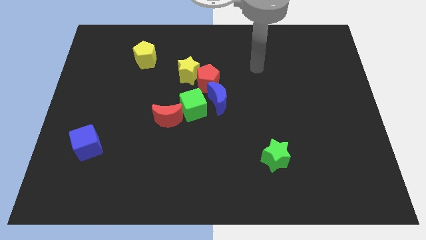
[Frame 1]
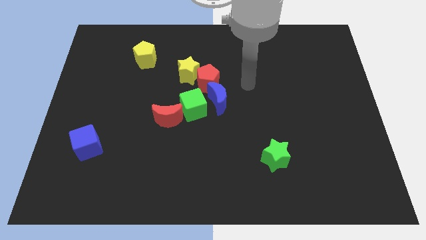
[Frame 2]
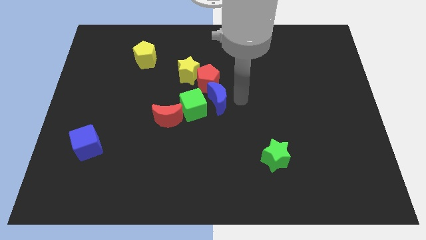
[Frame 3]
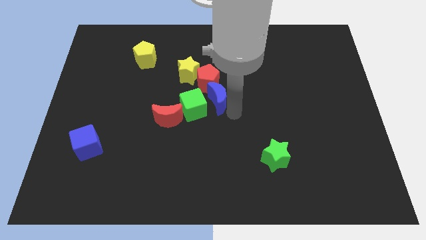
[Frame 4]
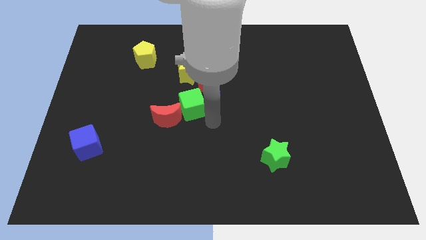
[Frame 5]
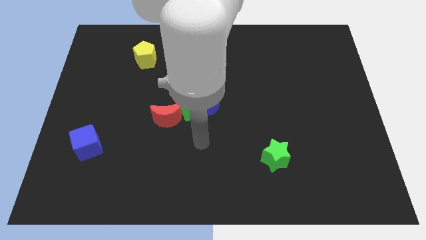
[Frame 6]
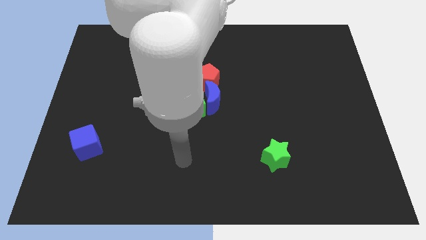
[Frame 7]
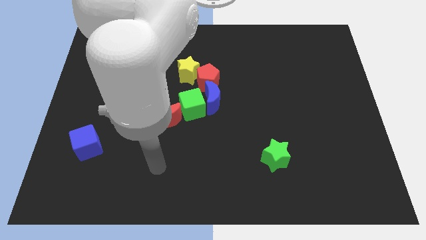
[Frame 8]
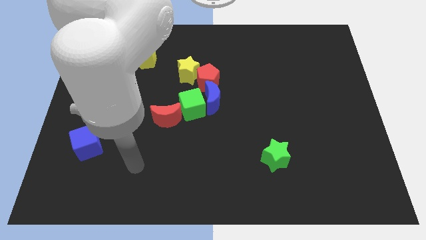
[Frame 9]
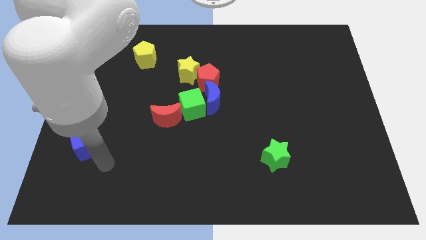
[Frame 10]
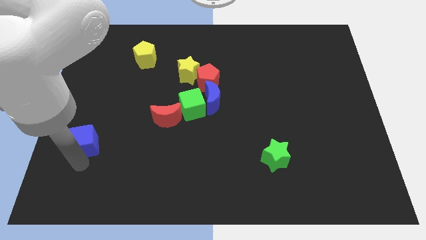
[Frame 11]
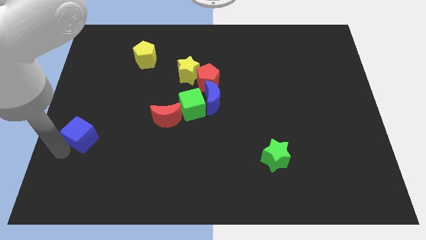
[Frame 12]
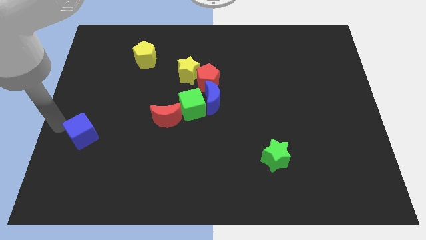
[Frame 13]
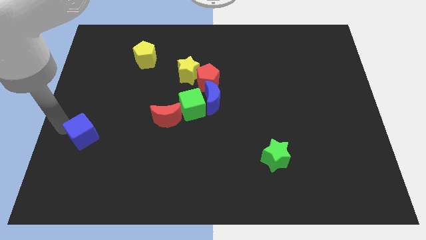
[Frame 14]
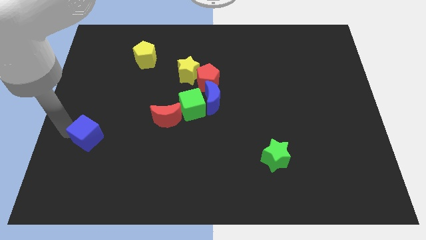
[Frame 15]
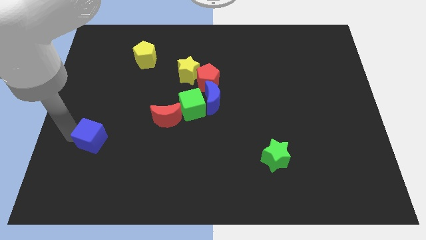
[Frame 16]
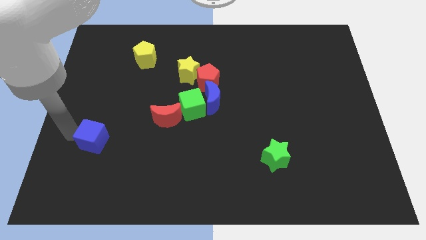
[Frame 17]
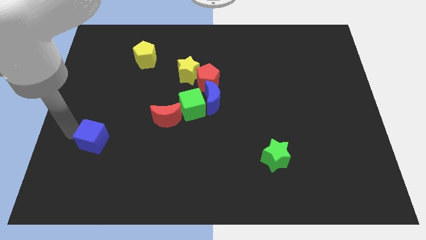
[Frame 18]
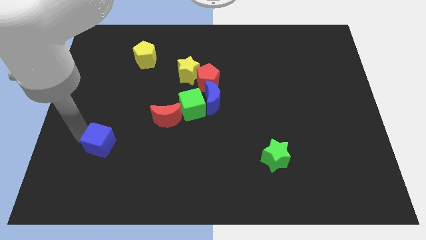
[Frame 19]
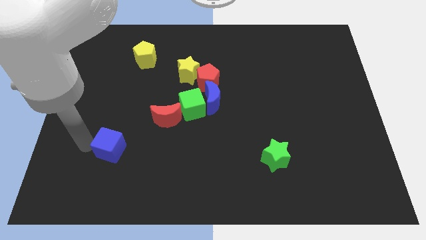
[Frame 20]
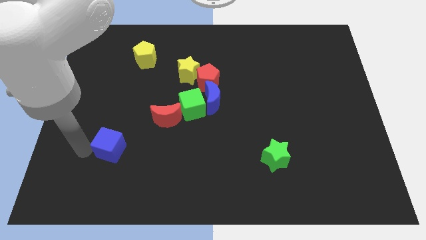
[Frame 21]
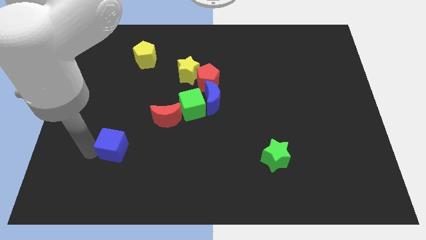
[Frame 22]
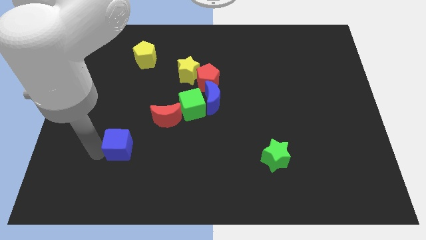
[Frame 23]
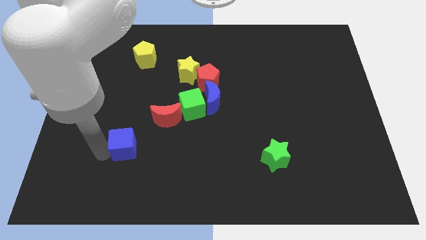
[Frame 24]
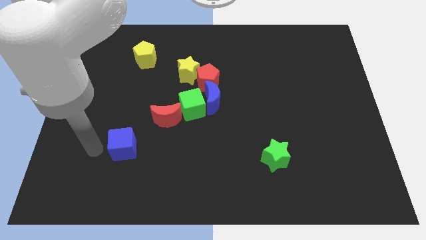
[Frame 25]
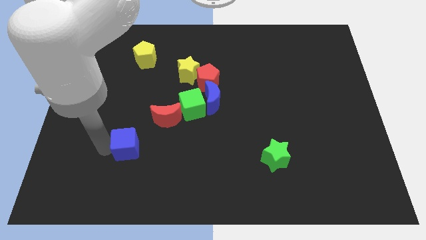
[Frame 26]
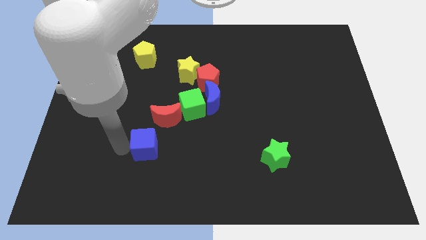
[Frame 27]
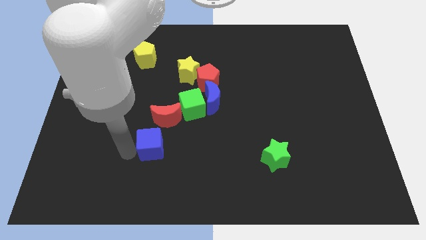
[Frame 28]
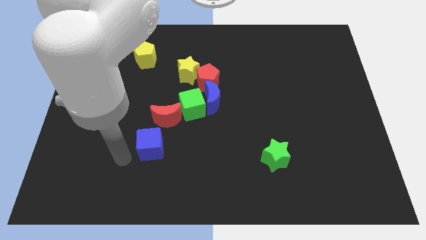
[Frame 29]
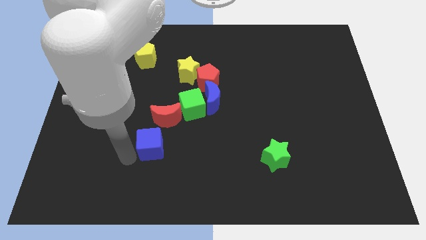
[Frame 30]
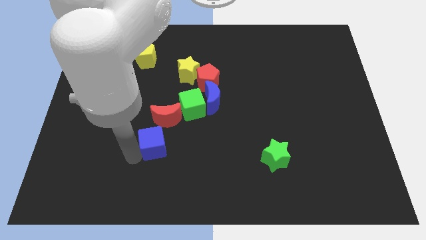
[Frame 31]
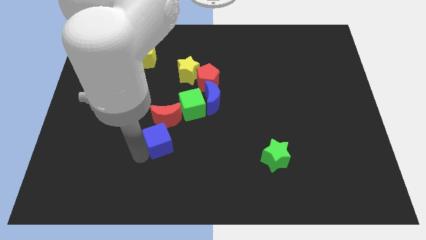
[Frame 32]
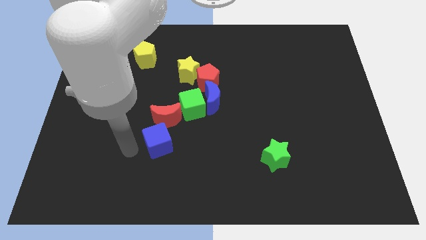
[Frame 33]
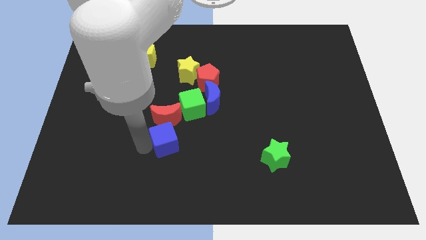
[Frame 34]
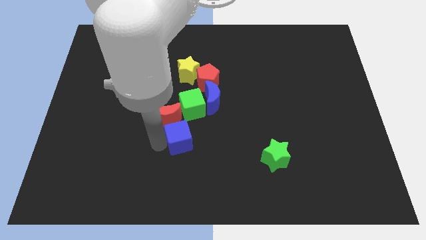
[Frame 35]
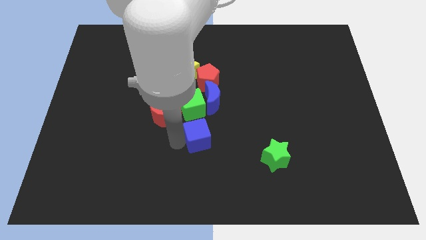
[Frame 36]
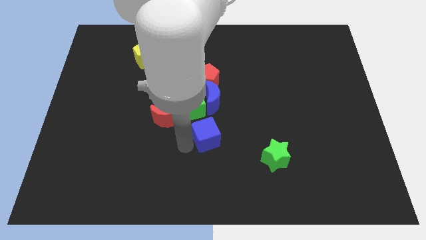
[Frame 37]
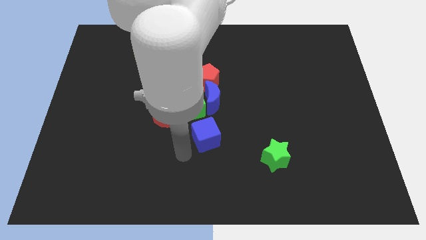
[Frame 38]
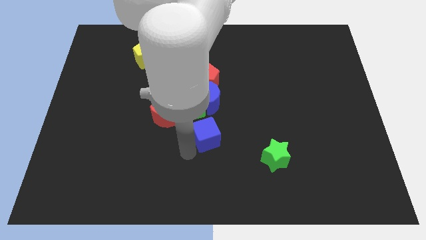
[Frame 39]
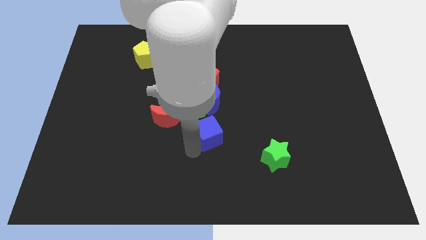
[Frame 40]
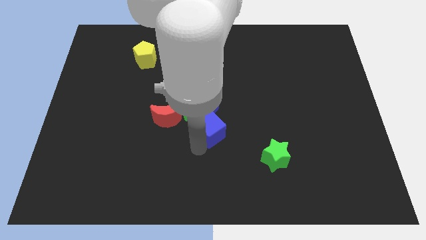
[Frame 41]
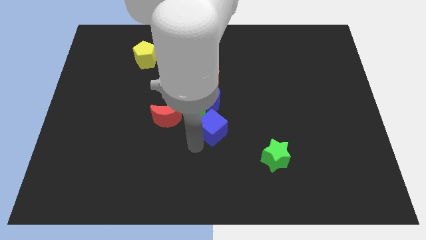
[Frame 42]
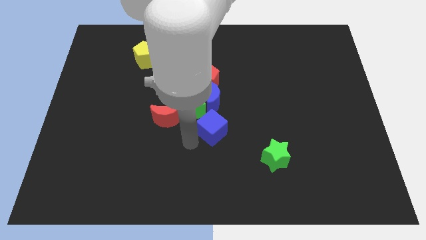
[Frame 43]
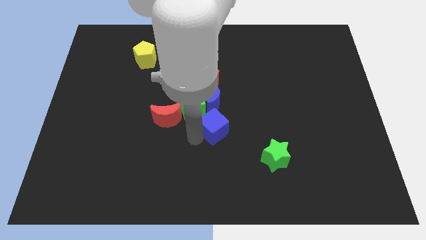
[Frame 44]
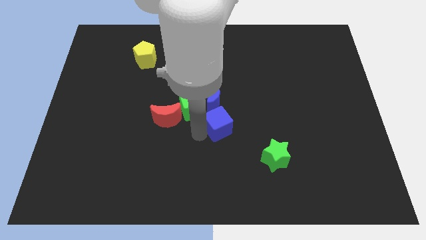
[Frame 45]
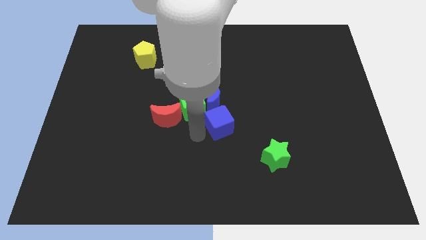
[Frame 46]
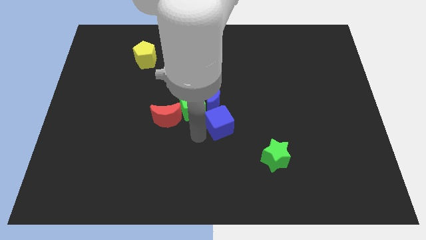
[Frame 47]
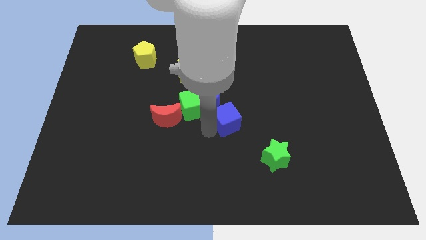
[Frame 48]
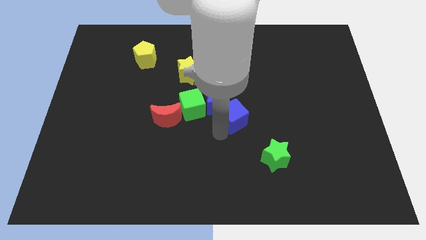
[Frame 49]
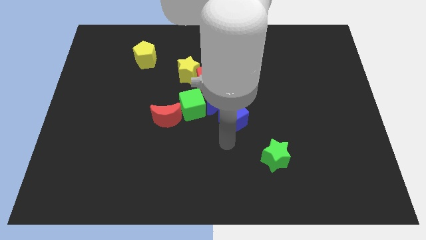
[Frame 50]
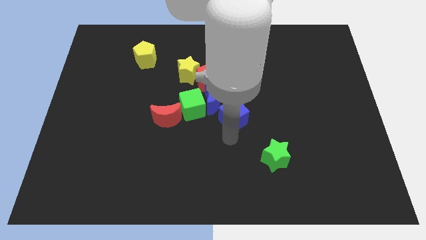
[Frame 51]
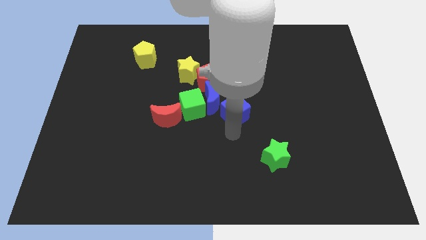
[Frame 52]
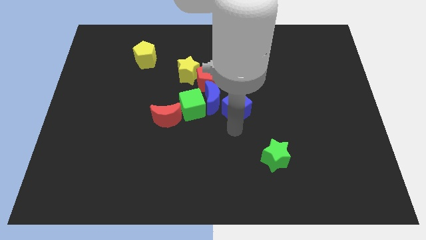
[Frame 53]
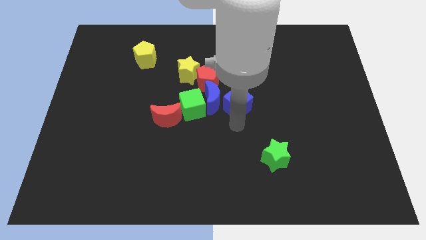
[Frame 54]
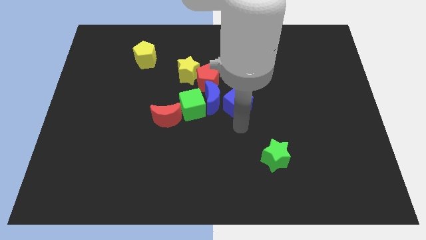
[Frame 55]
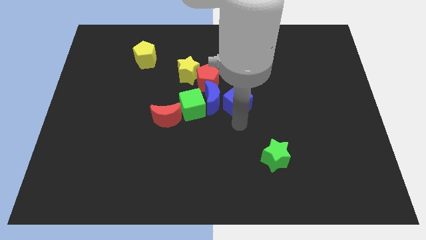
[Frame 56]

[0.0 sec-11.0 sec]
put the blue cube to the top right of the blue moon
